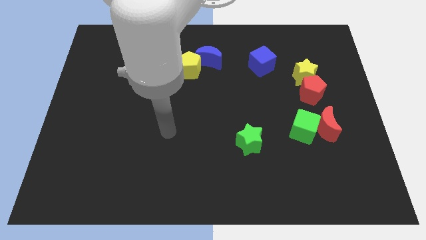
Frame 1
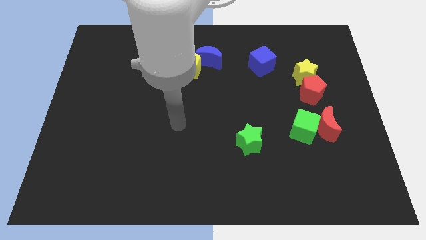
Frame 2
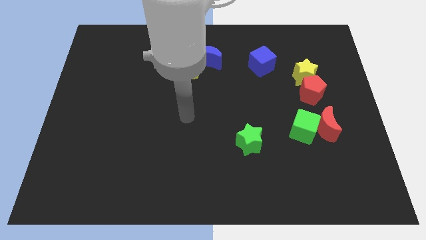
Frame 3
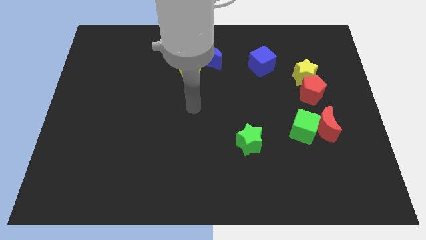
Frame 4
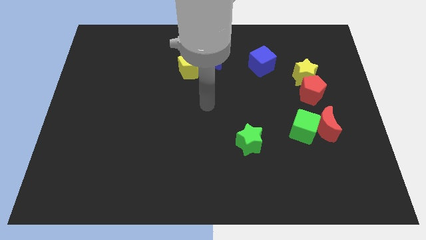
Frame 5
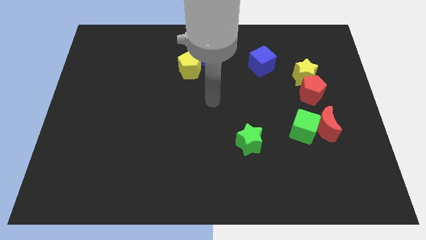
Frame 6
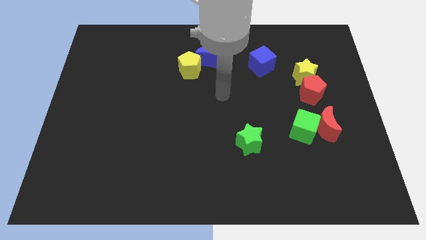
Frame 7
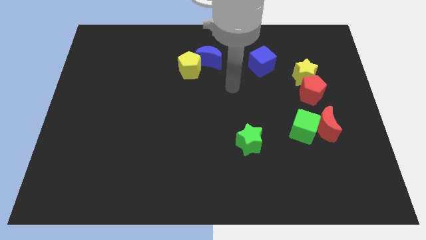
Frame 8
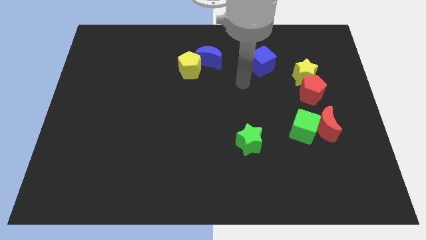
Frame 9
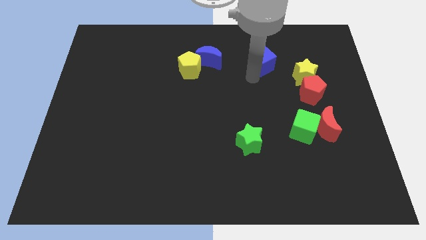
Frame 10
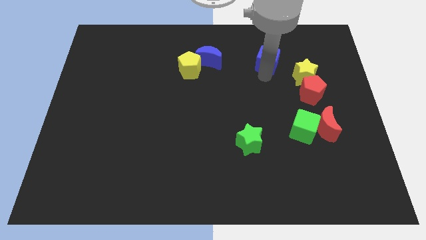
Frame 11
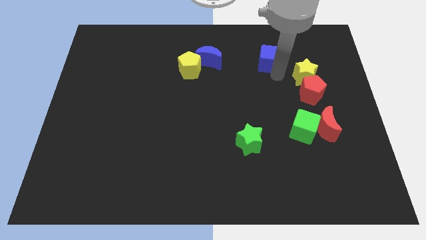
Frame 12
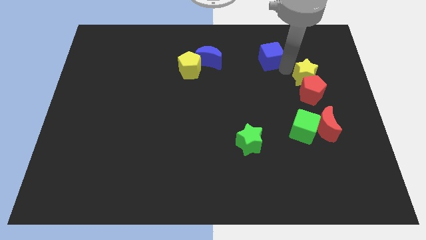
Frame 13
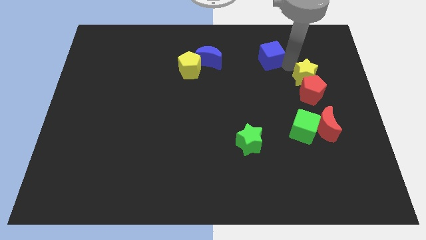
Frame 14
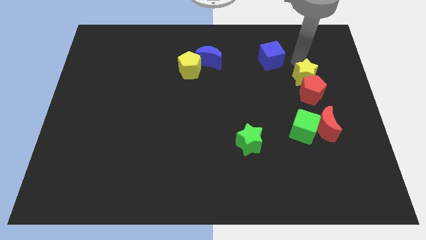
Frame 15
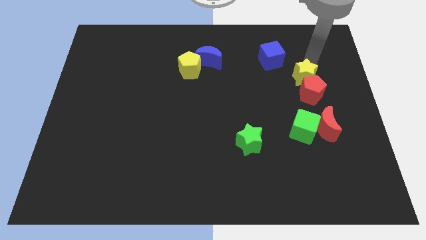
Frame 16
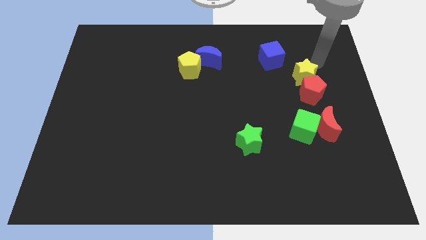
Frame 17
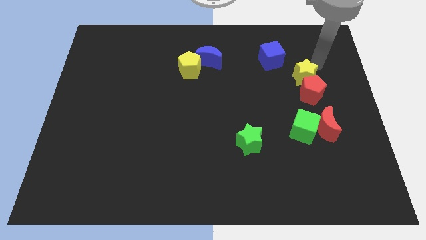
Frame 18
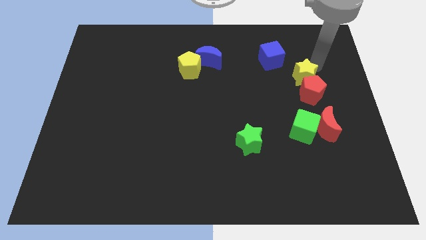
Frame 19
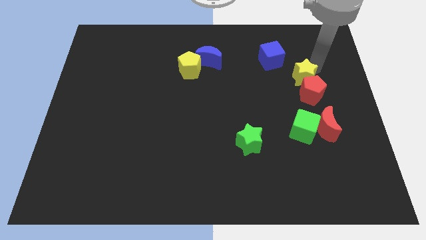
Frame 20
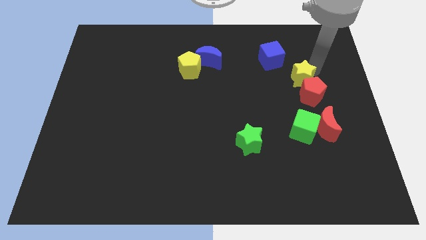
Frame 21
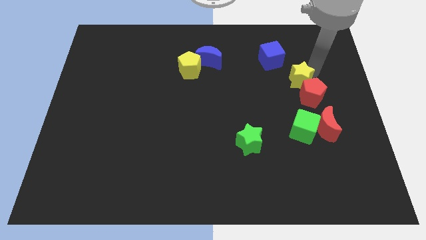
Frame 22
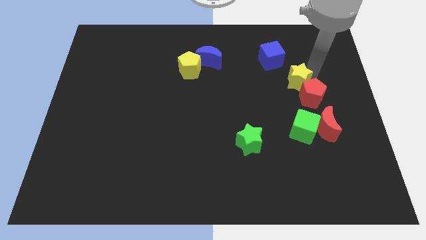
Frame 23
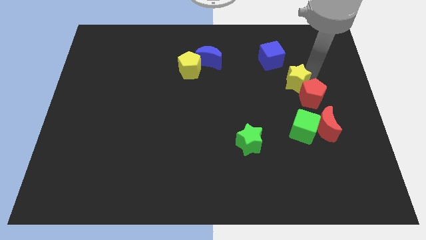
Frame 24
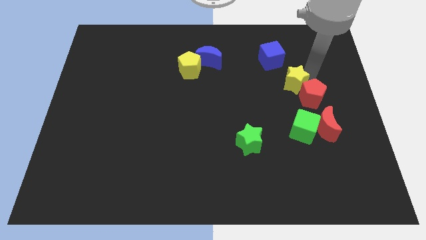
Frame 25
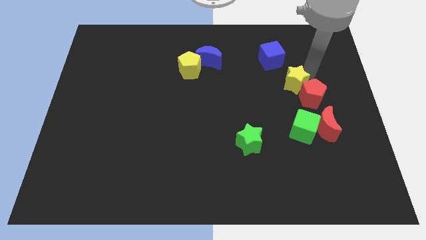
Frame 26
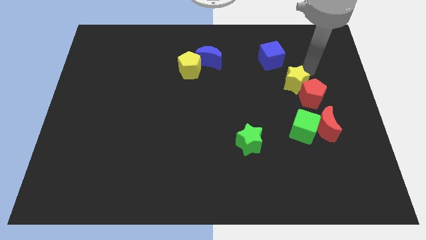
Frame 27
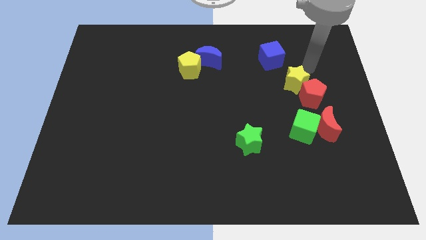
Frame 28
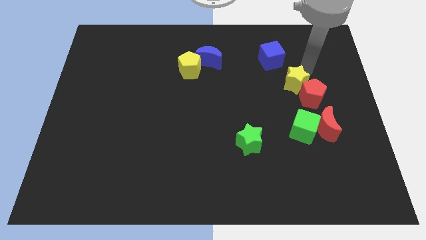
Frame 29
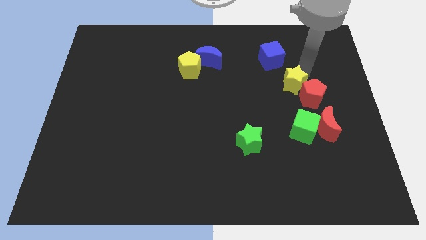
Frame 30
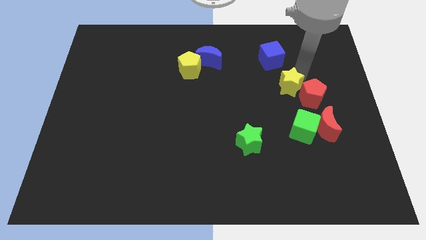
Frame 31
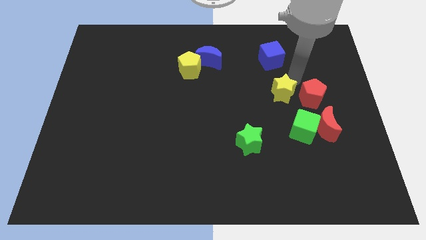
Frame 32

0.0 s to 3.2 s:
slightly slide the yellow star down and then left

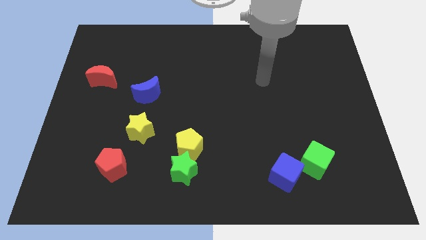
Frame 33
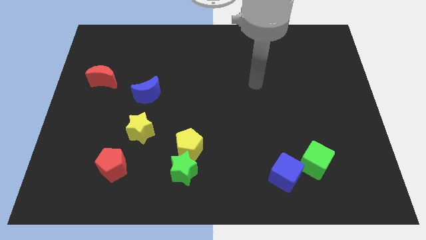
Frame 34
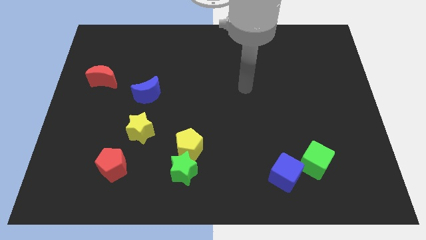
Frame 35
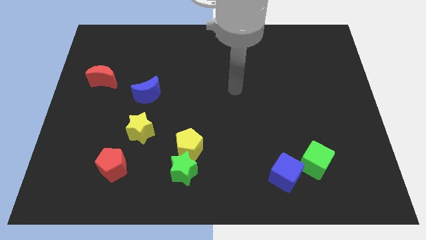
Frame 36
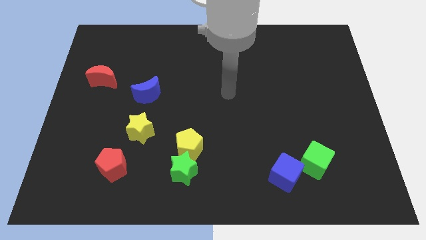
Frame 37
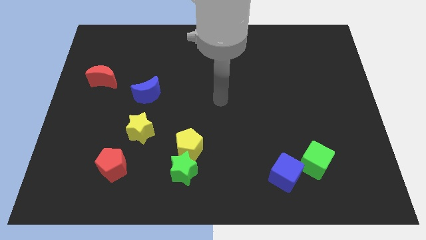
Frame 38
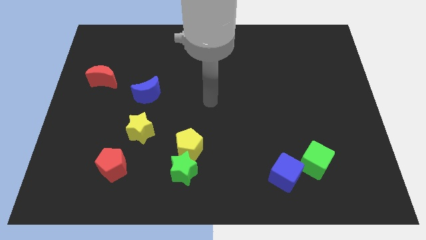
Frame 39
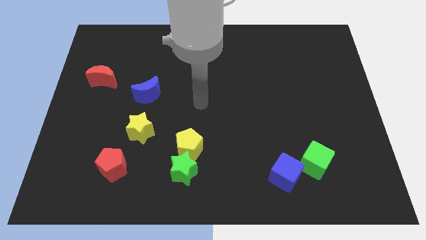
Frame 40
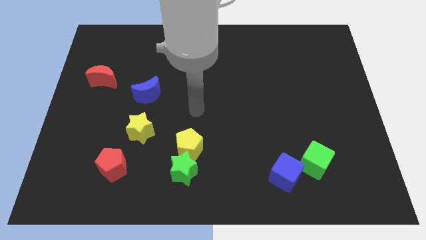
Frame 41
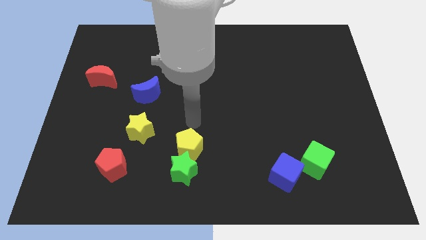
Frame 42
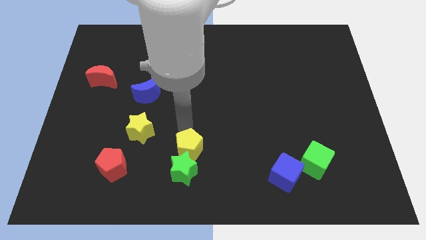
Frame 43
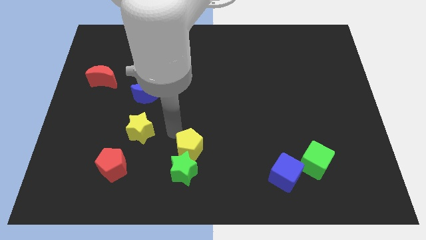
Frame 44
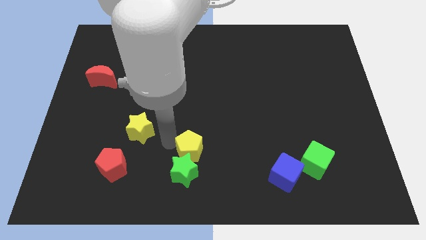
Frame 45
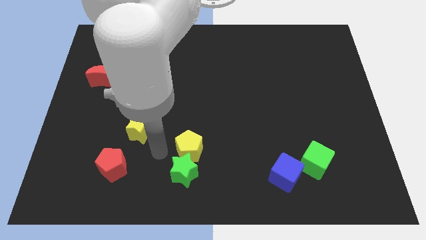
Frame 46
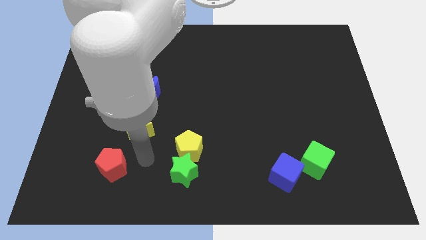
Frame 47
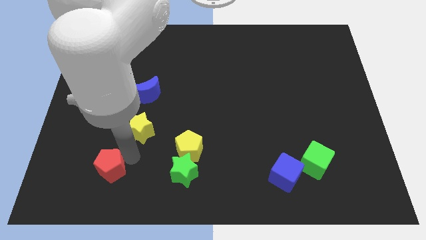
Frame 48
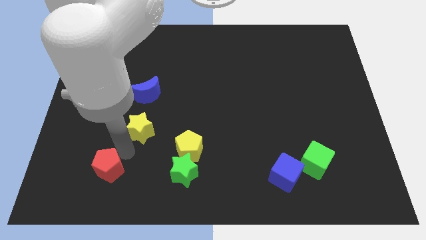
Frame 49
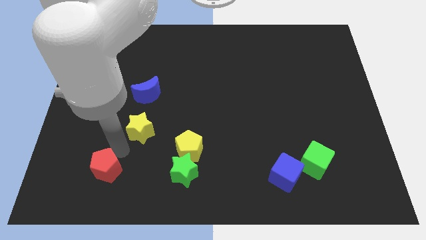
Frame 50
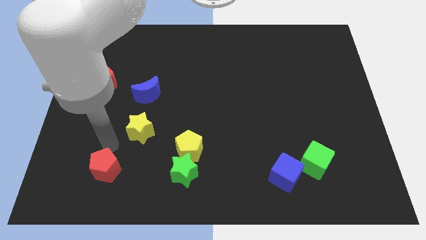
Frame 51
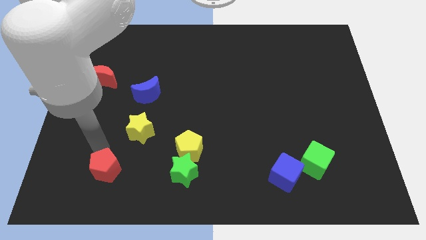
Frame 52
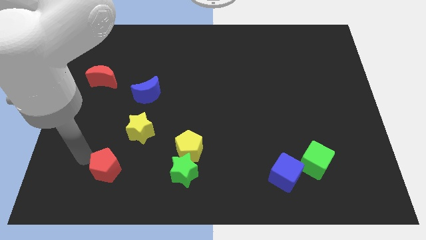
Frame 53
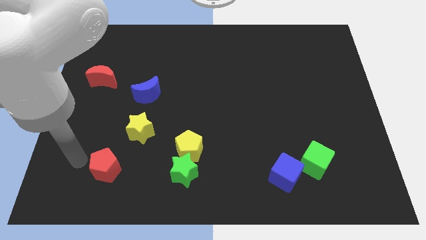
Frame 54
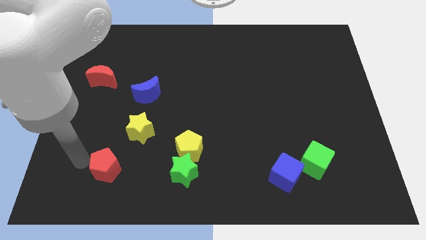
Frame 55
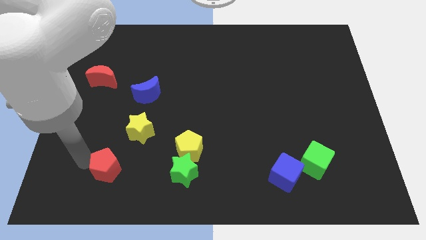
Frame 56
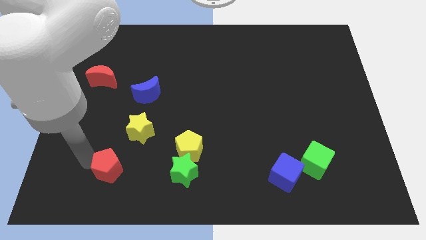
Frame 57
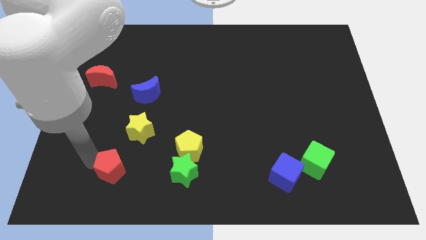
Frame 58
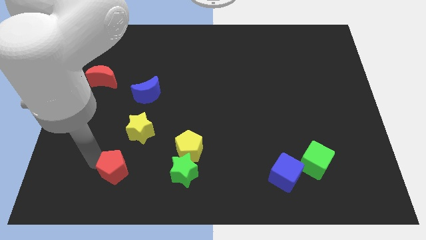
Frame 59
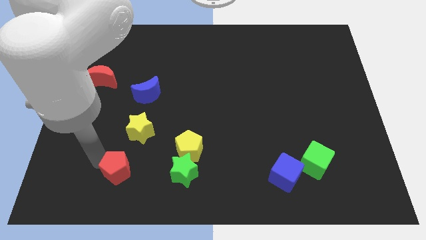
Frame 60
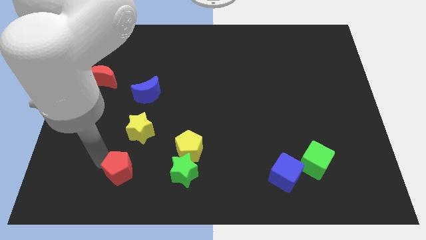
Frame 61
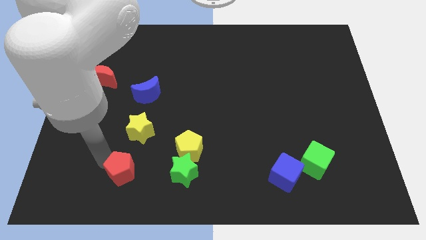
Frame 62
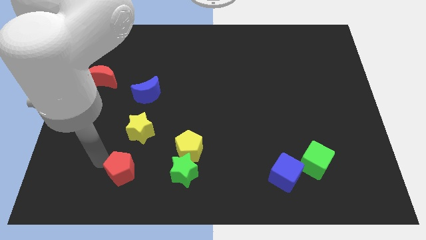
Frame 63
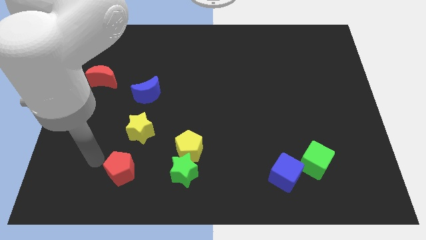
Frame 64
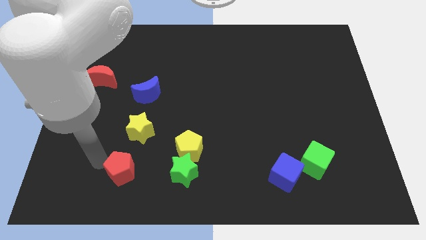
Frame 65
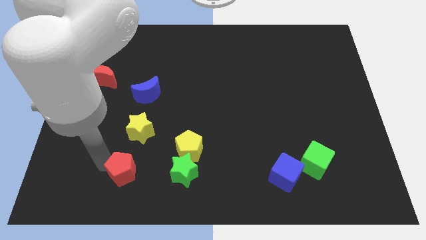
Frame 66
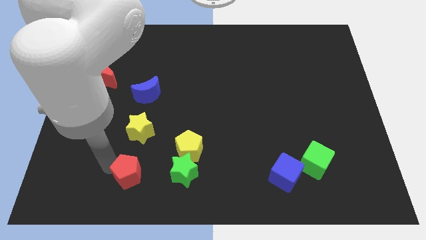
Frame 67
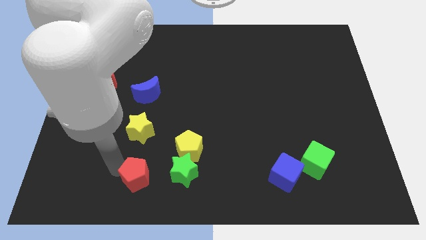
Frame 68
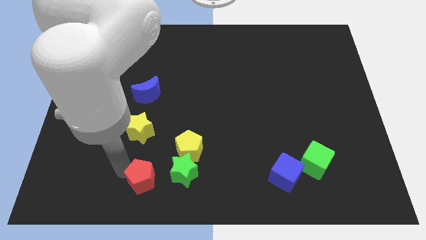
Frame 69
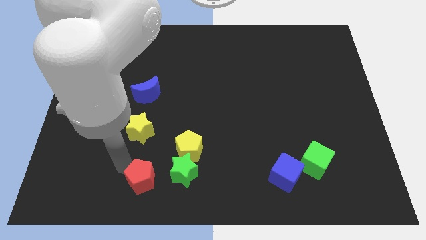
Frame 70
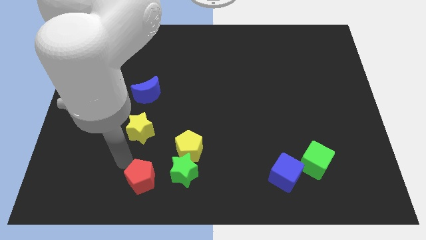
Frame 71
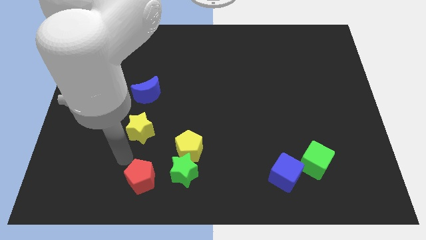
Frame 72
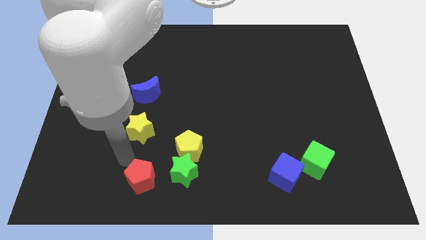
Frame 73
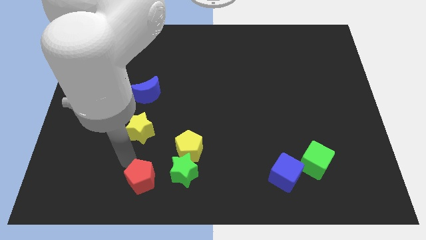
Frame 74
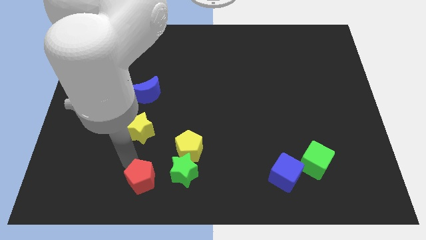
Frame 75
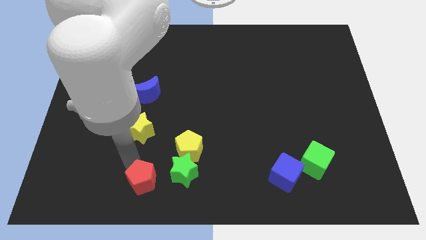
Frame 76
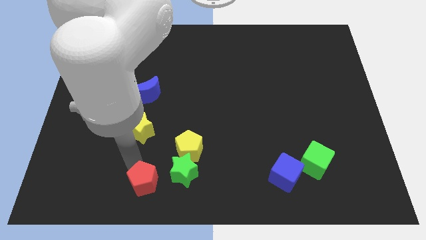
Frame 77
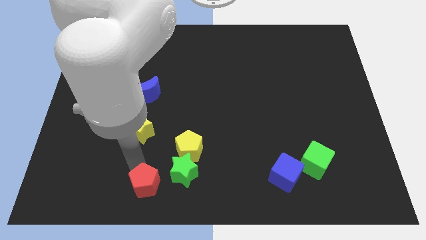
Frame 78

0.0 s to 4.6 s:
slightly move the red pentagon right

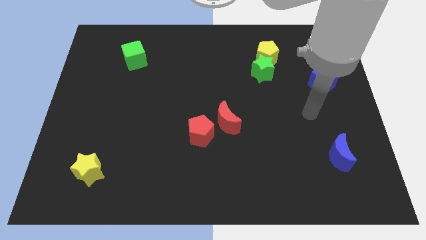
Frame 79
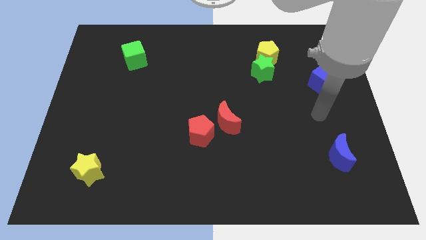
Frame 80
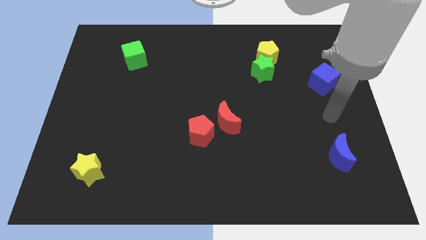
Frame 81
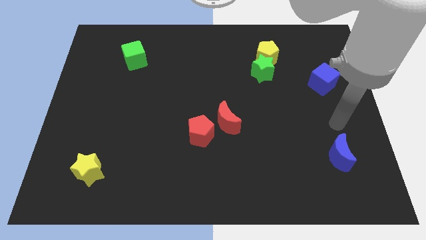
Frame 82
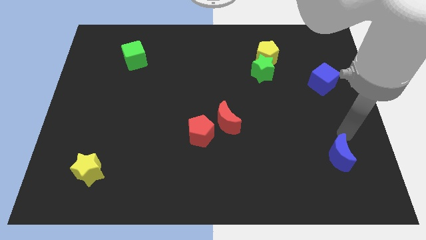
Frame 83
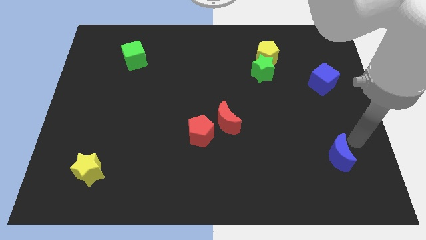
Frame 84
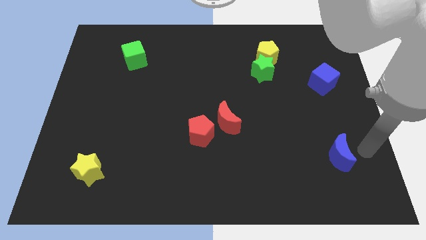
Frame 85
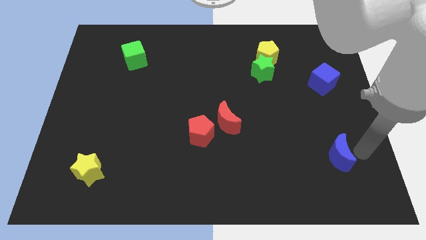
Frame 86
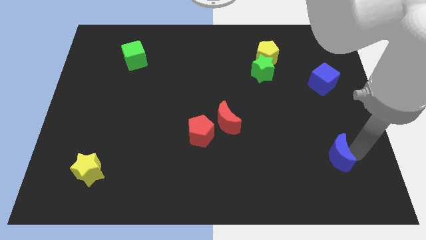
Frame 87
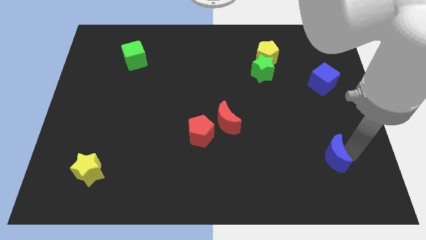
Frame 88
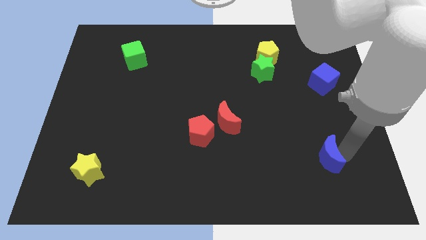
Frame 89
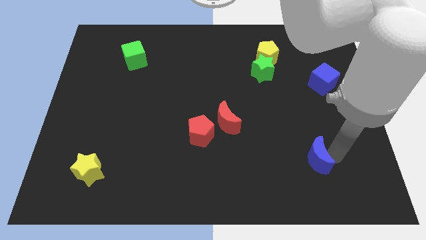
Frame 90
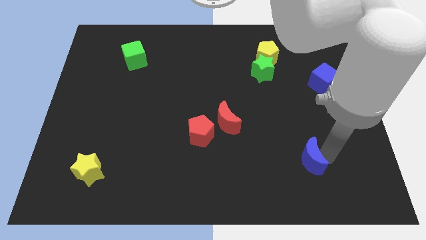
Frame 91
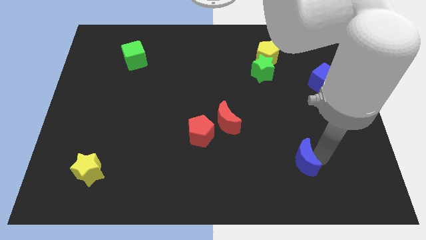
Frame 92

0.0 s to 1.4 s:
move the blue moon somewhat left
